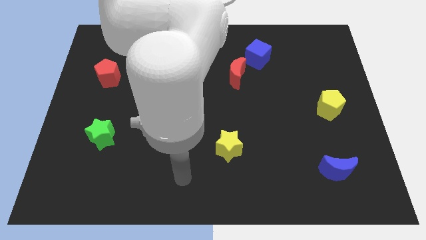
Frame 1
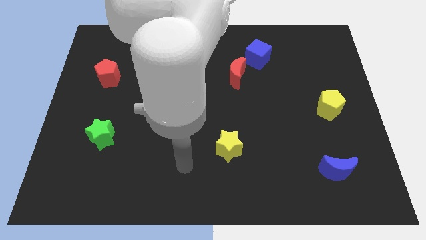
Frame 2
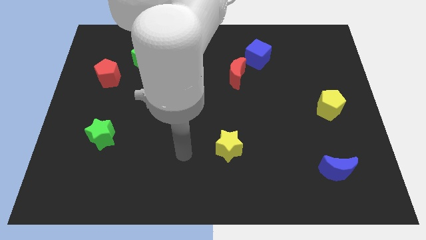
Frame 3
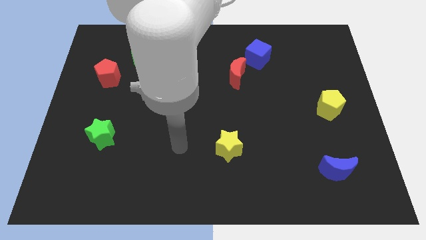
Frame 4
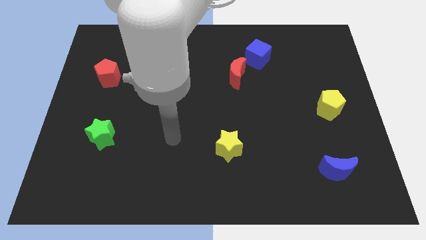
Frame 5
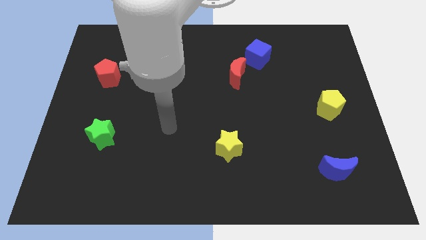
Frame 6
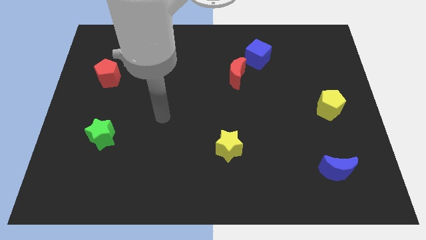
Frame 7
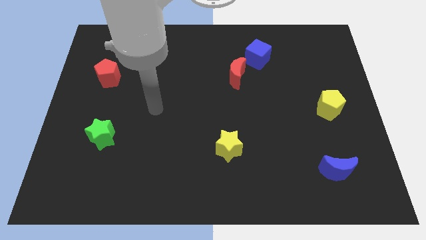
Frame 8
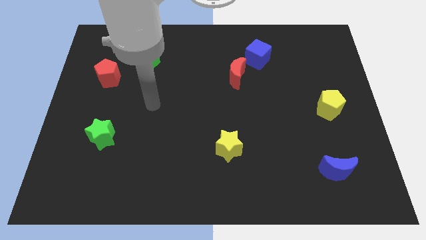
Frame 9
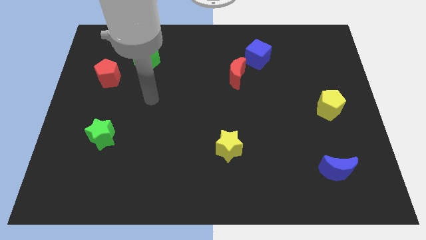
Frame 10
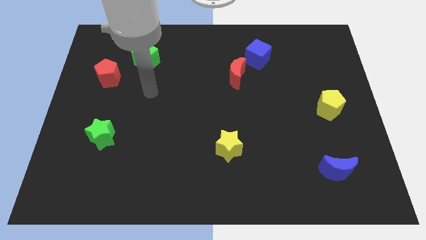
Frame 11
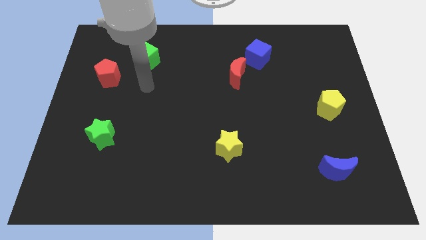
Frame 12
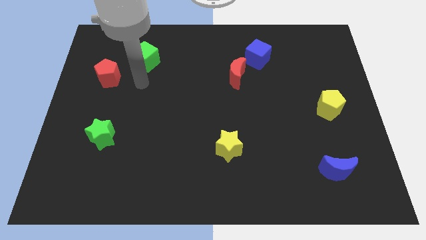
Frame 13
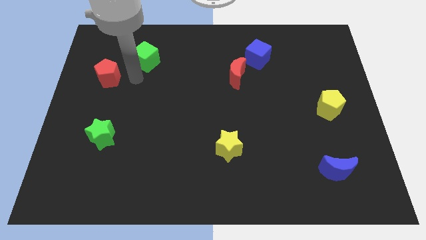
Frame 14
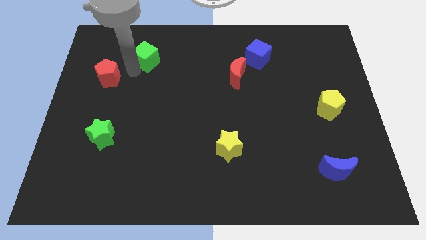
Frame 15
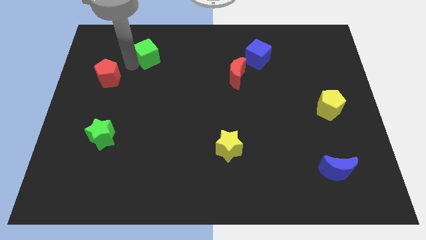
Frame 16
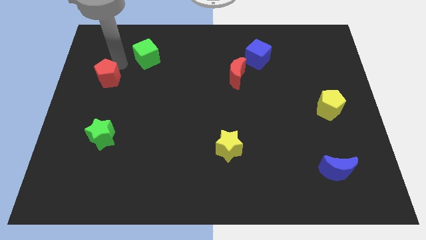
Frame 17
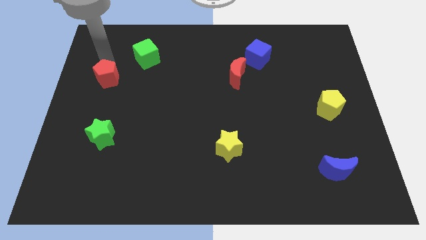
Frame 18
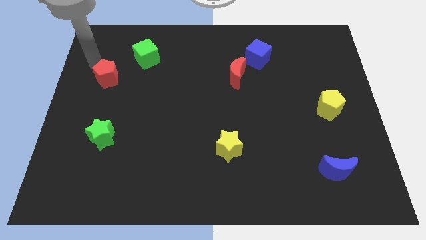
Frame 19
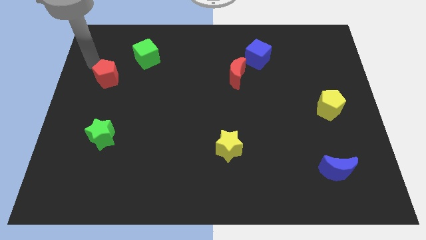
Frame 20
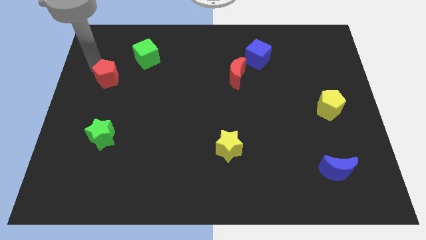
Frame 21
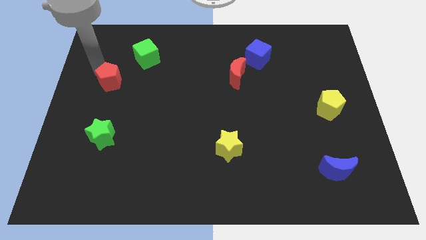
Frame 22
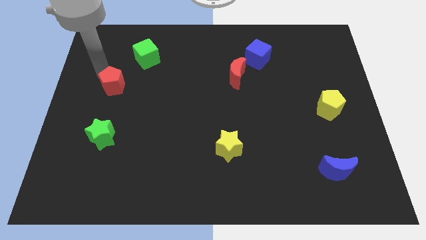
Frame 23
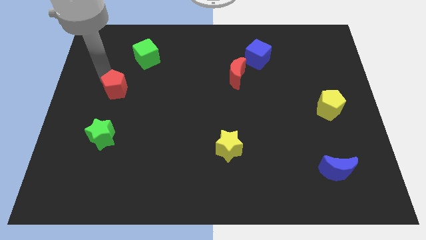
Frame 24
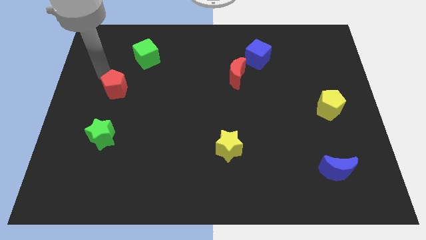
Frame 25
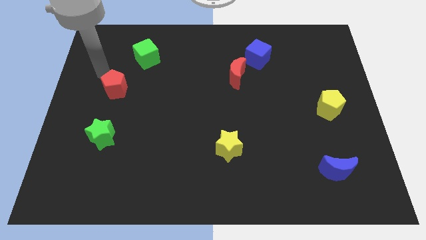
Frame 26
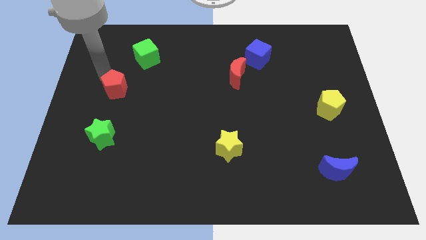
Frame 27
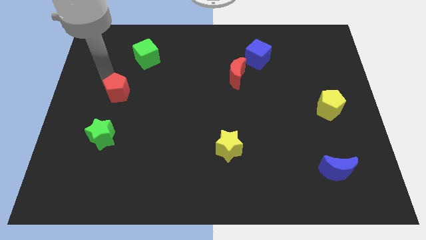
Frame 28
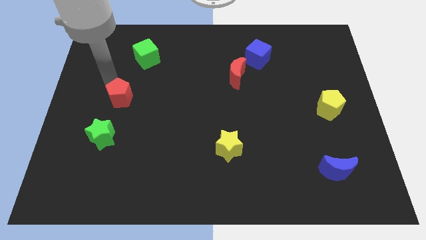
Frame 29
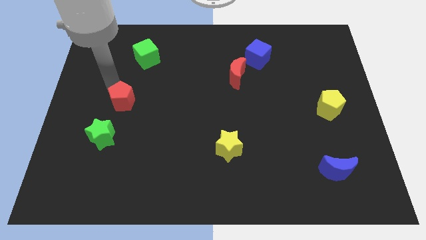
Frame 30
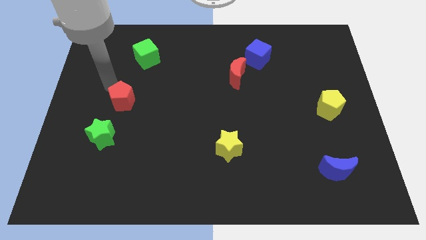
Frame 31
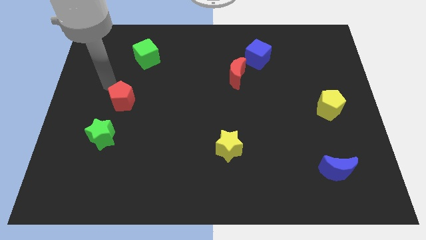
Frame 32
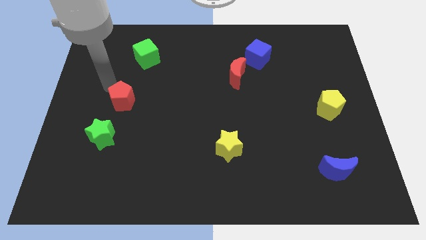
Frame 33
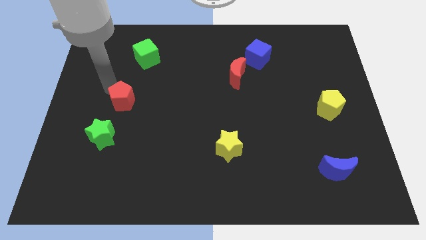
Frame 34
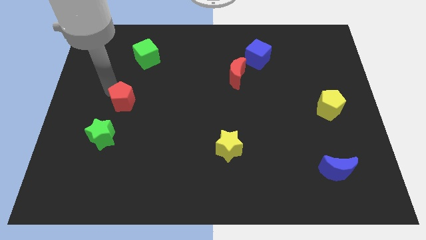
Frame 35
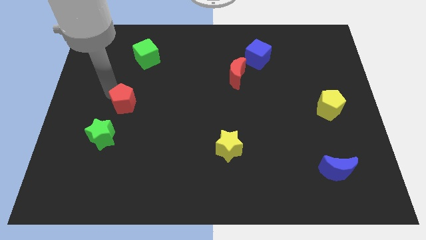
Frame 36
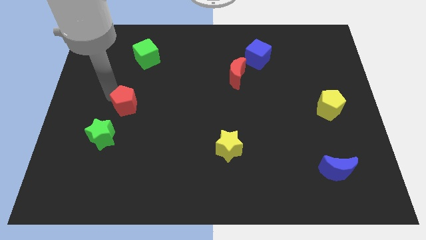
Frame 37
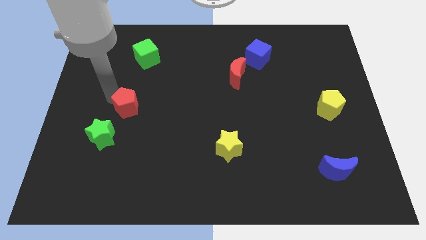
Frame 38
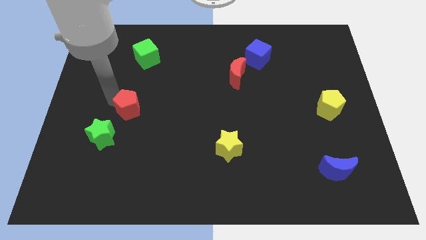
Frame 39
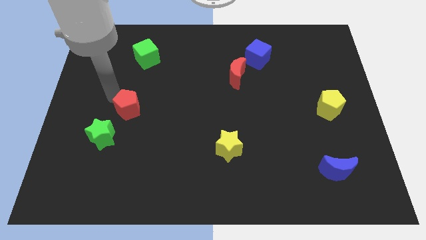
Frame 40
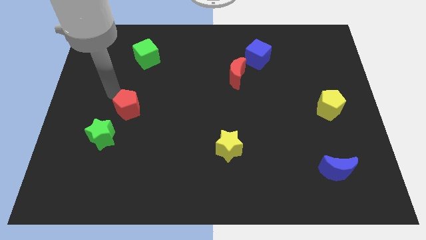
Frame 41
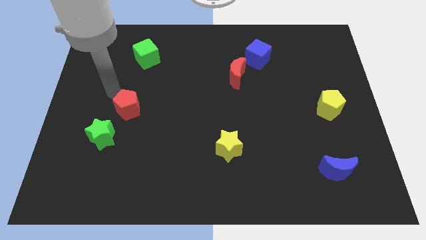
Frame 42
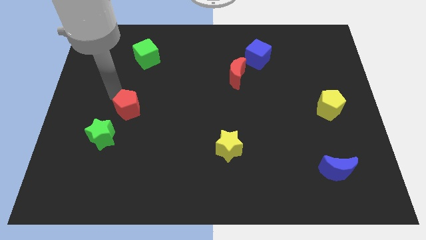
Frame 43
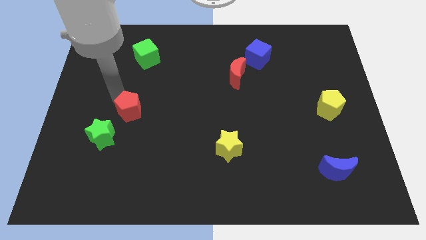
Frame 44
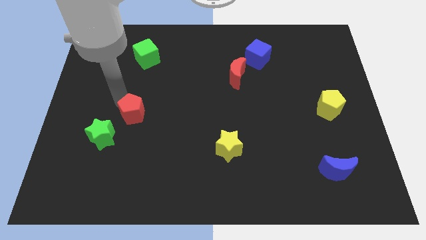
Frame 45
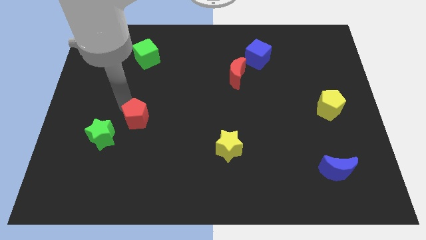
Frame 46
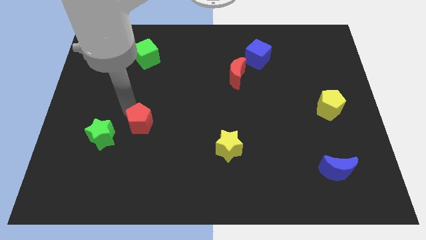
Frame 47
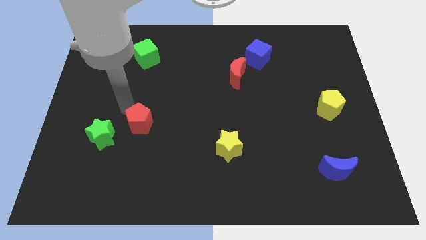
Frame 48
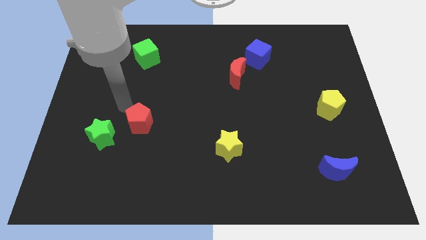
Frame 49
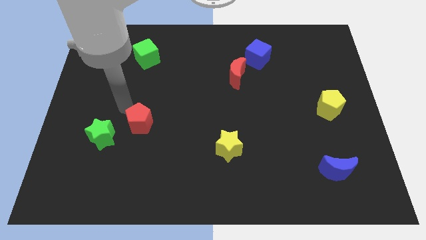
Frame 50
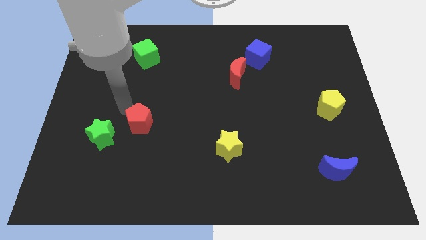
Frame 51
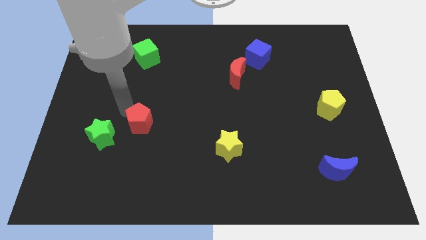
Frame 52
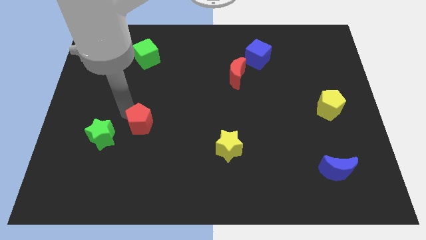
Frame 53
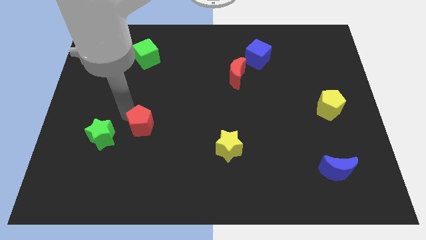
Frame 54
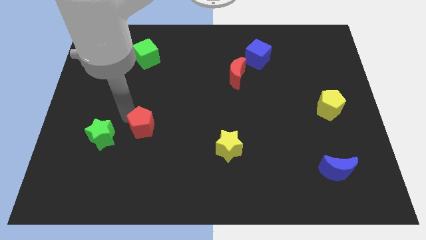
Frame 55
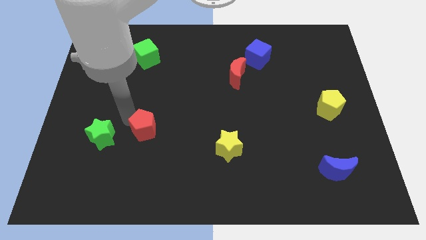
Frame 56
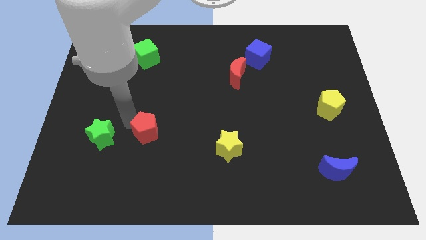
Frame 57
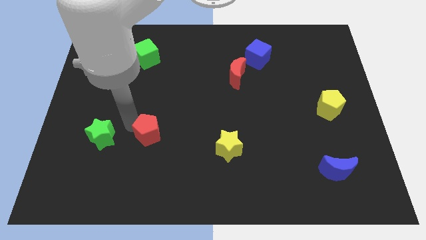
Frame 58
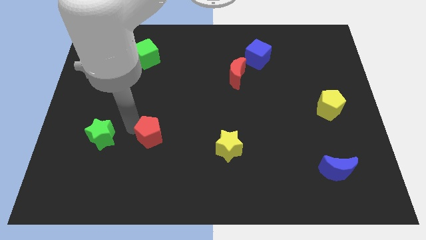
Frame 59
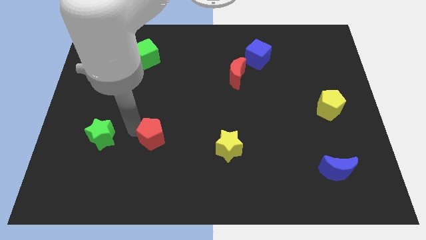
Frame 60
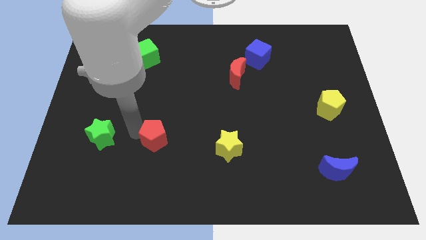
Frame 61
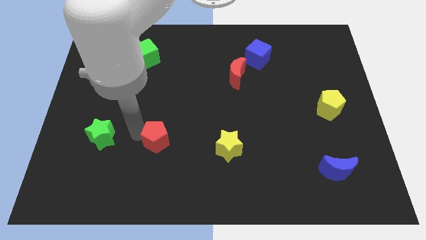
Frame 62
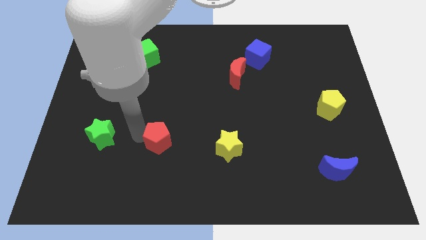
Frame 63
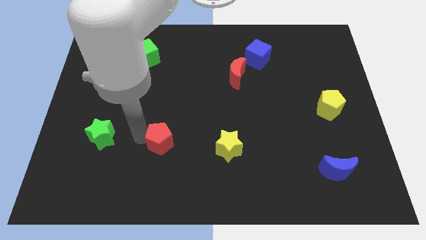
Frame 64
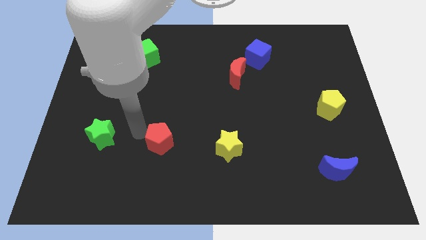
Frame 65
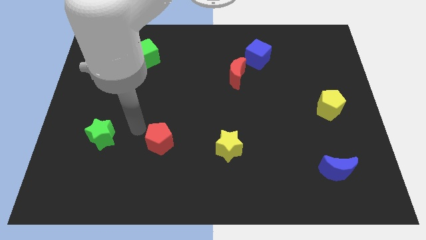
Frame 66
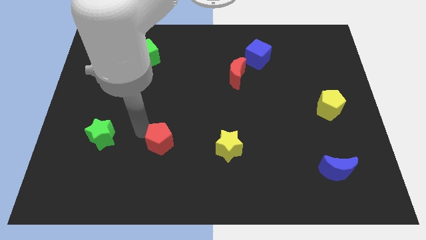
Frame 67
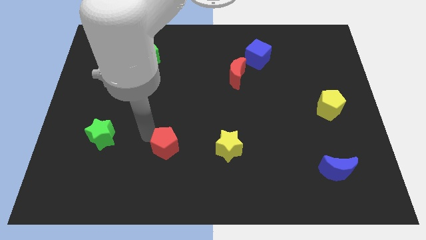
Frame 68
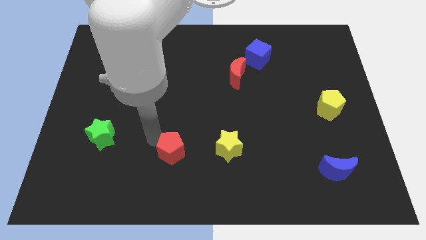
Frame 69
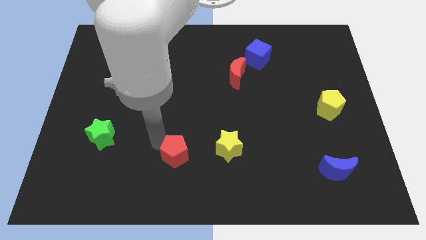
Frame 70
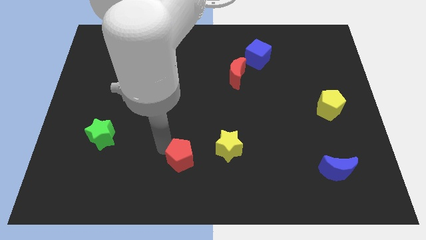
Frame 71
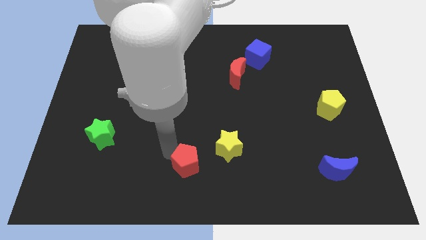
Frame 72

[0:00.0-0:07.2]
push the red pentagon to the bottom left of the yellow star
